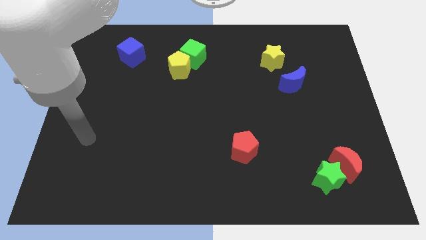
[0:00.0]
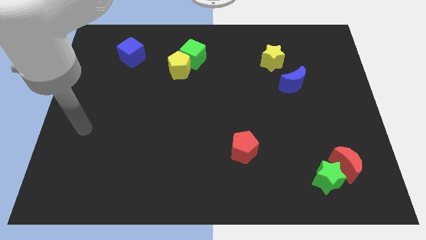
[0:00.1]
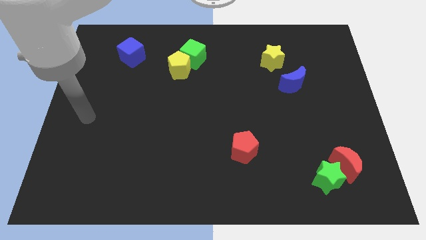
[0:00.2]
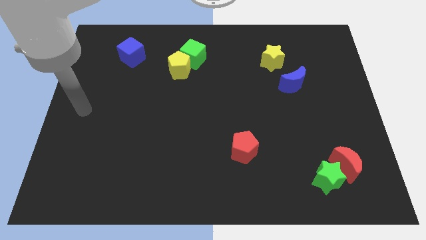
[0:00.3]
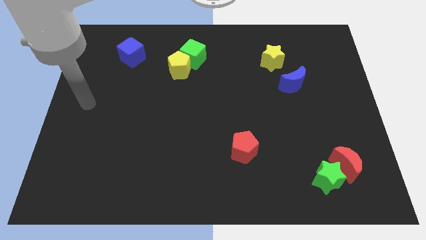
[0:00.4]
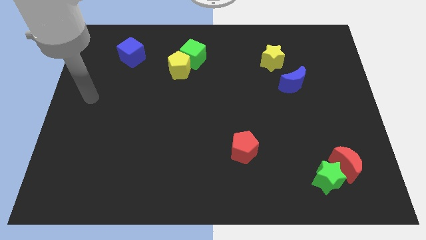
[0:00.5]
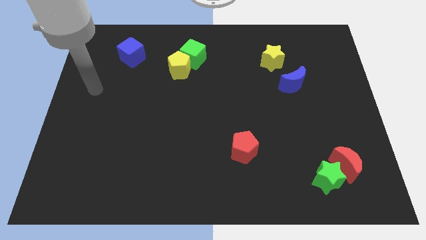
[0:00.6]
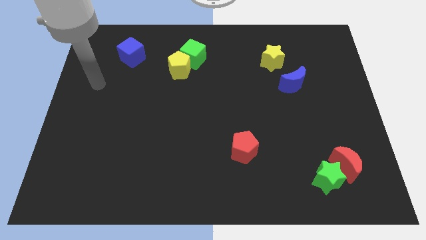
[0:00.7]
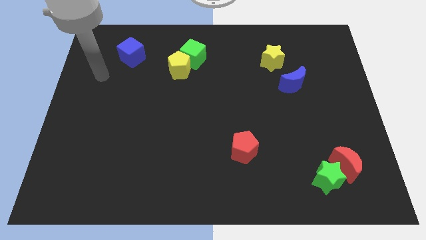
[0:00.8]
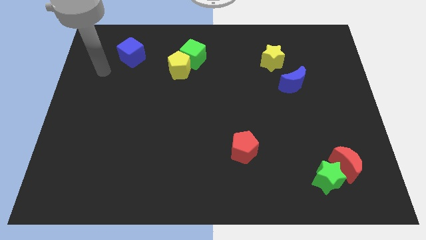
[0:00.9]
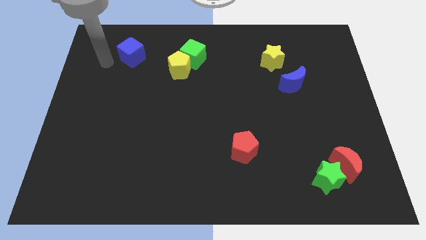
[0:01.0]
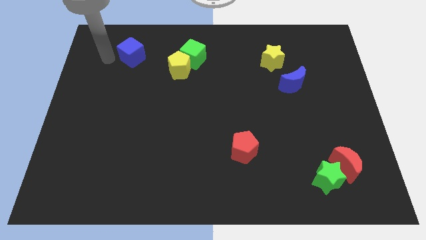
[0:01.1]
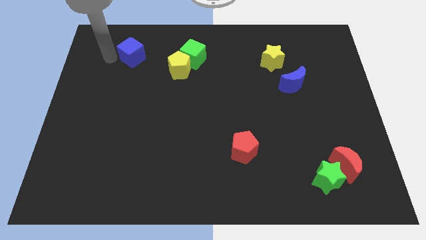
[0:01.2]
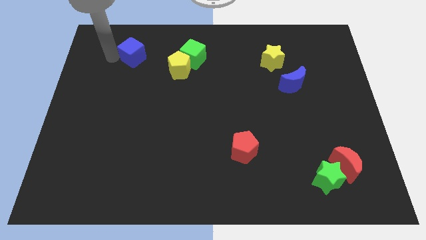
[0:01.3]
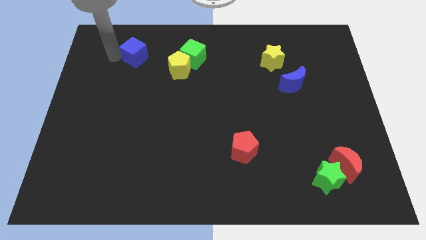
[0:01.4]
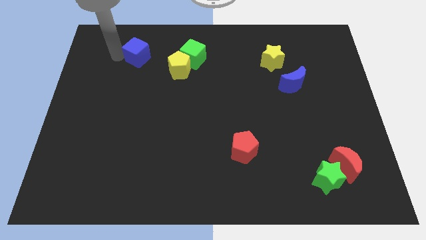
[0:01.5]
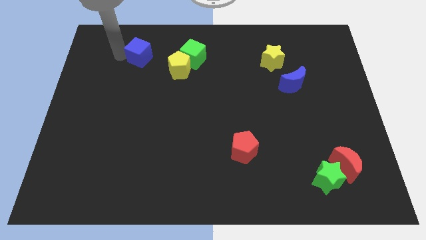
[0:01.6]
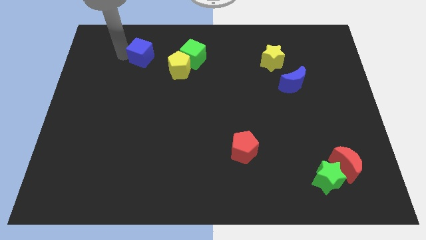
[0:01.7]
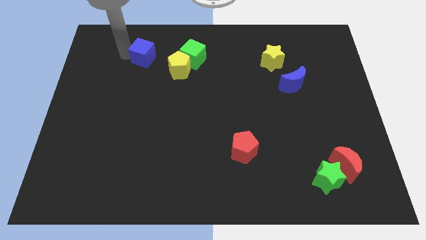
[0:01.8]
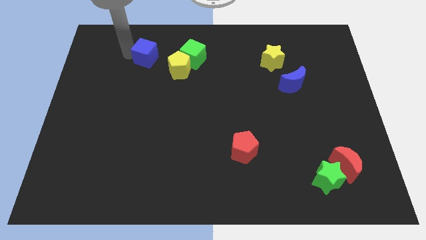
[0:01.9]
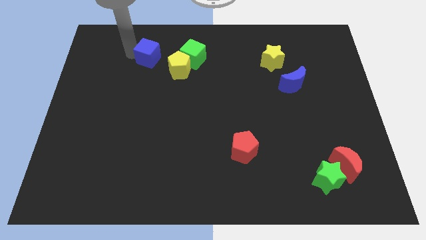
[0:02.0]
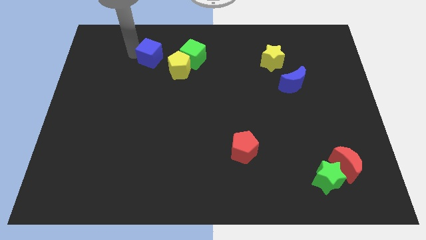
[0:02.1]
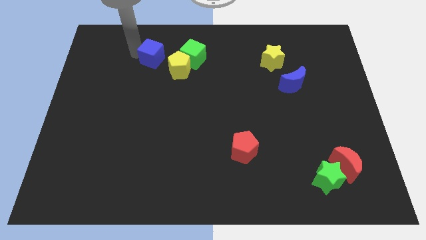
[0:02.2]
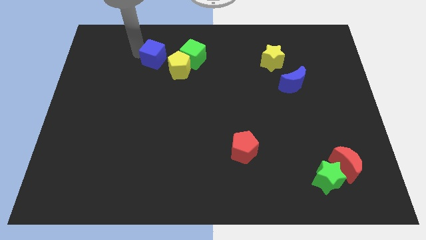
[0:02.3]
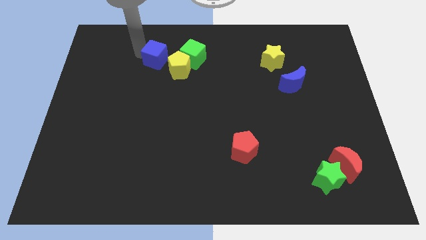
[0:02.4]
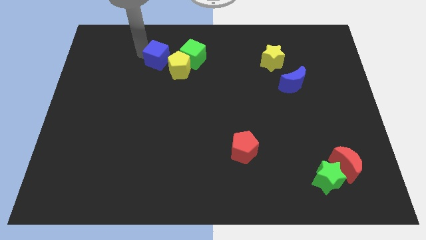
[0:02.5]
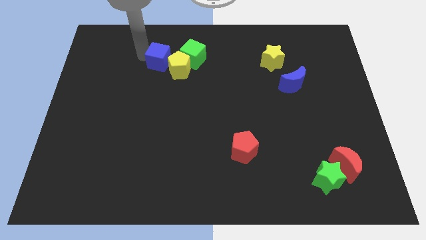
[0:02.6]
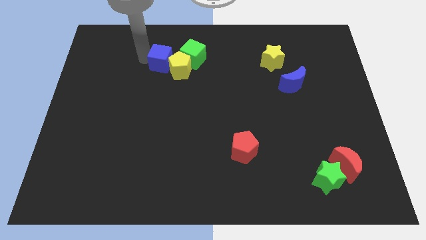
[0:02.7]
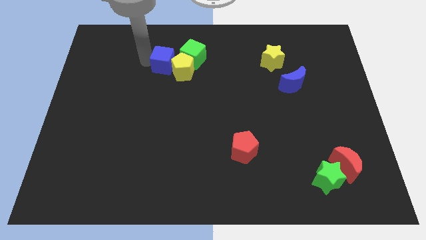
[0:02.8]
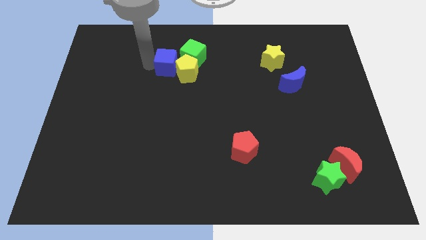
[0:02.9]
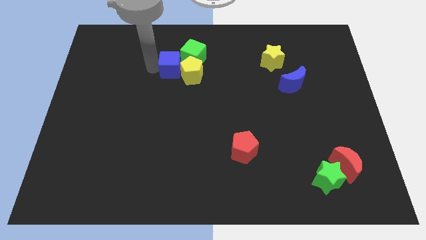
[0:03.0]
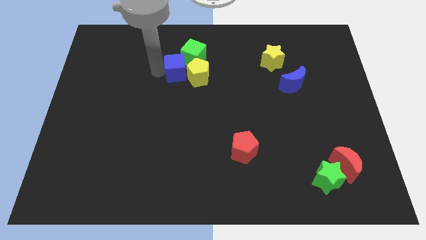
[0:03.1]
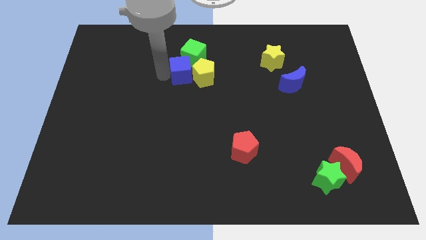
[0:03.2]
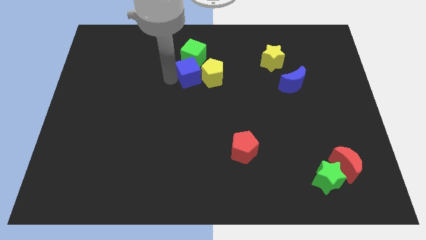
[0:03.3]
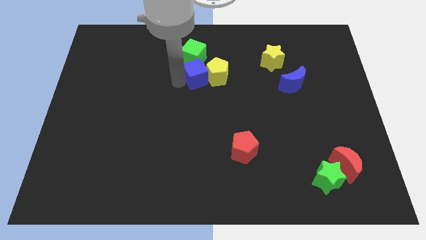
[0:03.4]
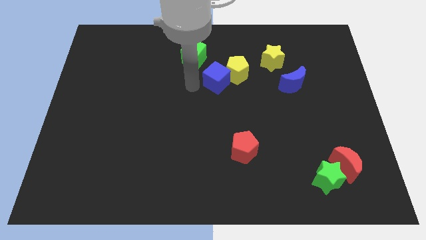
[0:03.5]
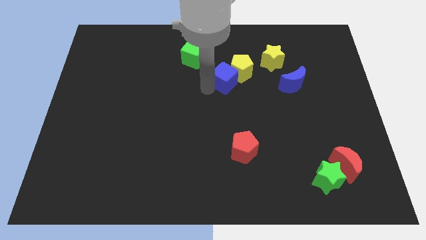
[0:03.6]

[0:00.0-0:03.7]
push the blue cube to the right

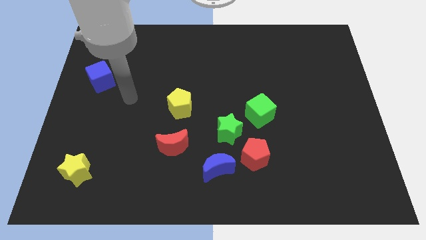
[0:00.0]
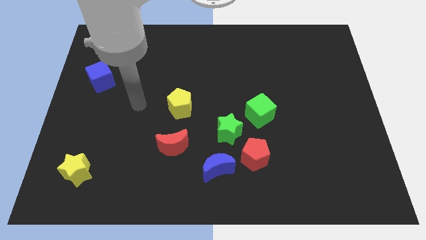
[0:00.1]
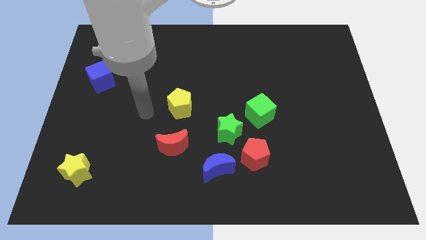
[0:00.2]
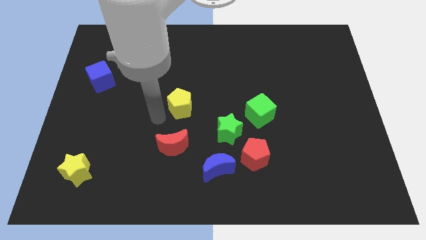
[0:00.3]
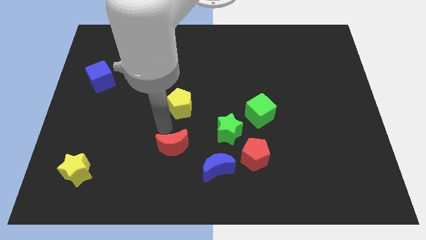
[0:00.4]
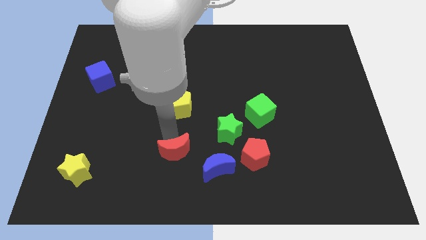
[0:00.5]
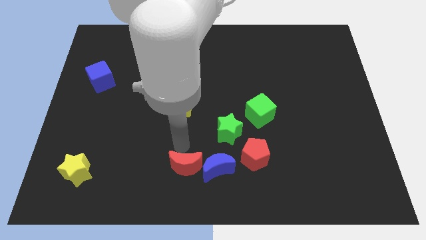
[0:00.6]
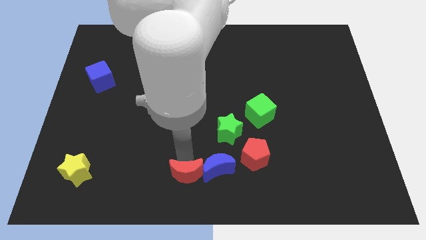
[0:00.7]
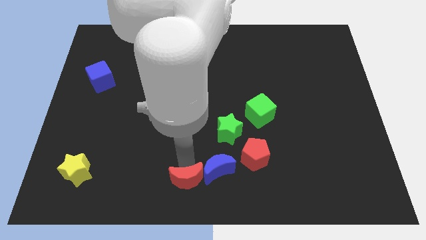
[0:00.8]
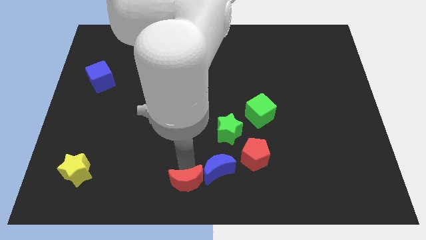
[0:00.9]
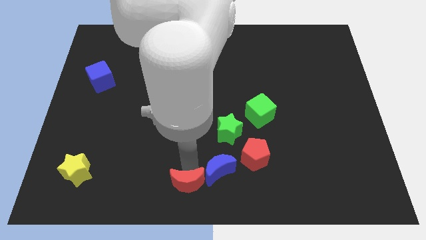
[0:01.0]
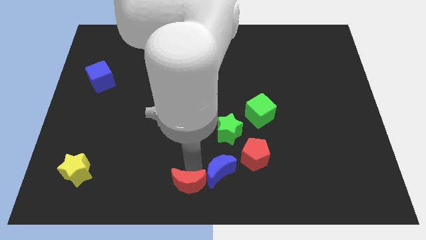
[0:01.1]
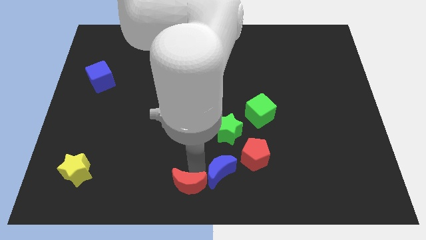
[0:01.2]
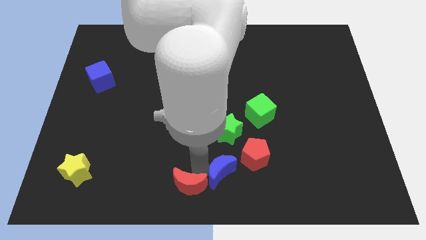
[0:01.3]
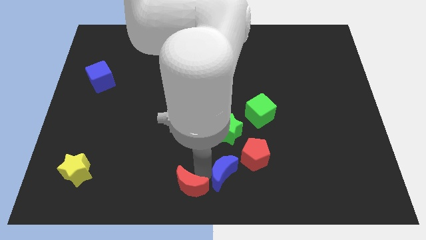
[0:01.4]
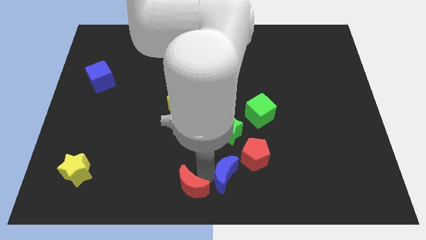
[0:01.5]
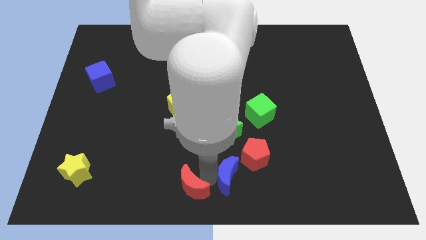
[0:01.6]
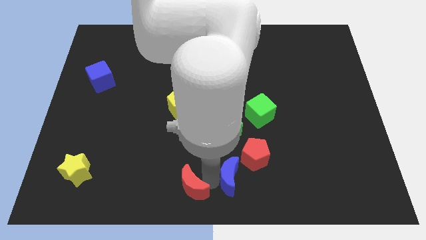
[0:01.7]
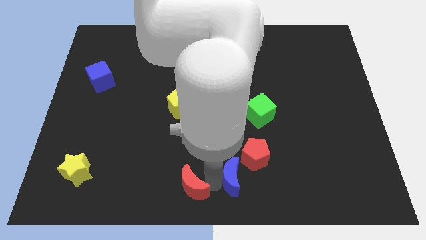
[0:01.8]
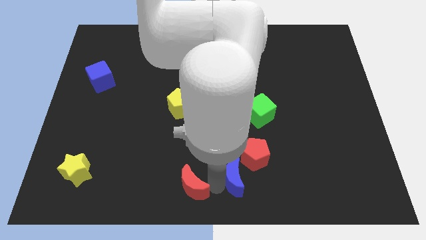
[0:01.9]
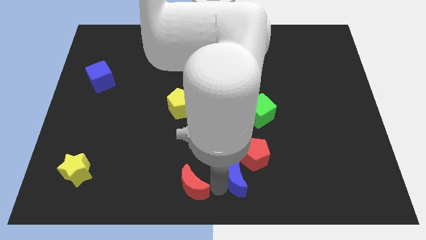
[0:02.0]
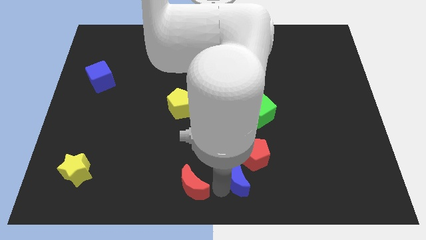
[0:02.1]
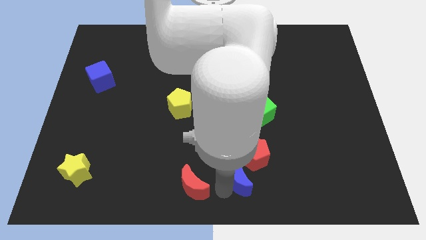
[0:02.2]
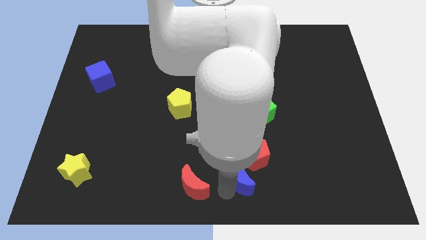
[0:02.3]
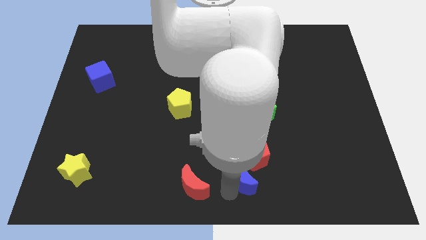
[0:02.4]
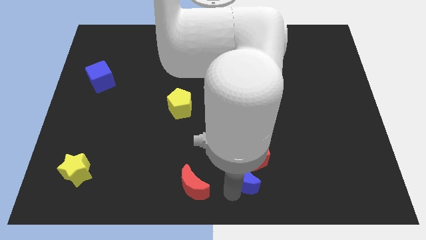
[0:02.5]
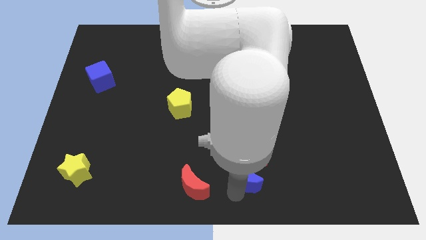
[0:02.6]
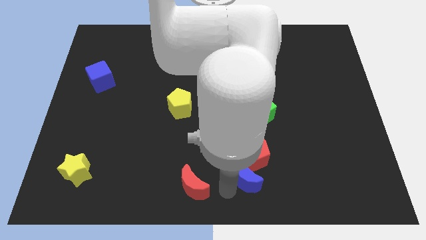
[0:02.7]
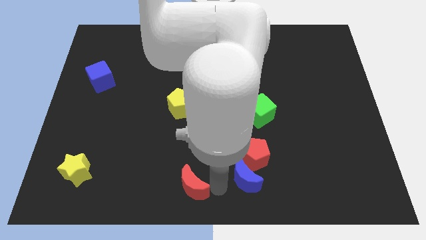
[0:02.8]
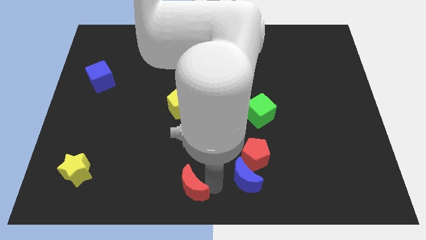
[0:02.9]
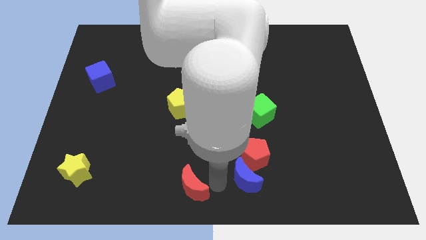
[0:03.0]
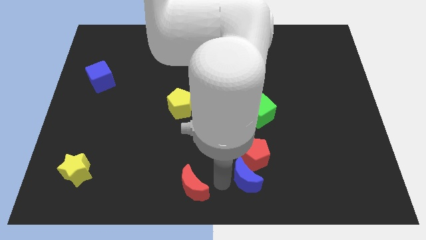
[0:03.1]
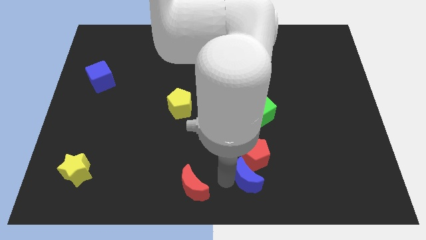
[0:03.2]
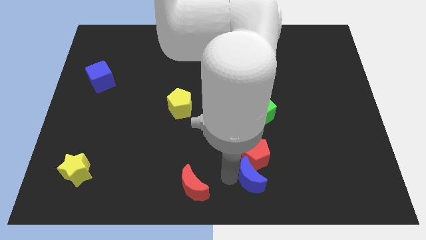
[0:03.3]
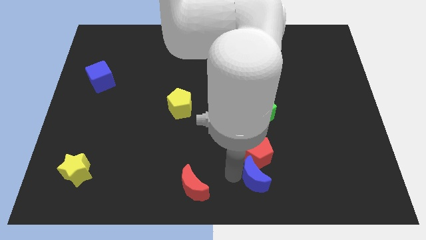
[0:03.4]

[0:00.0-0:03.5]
push the blue moon slightly right

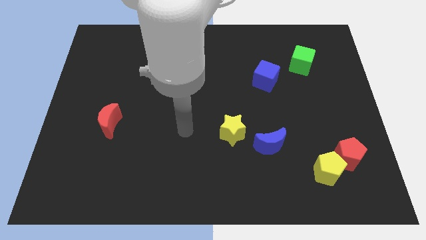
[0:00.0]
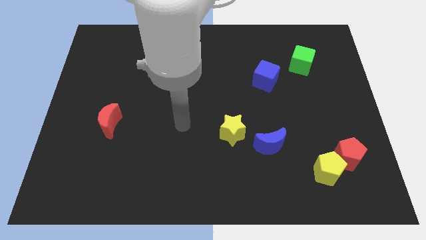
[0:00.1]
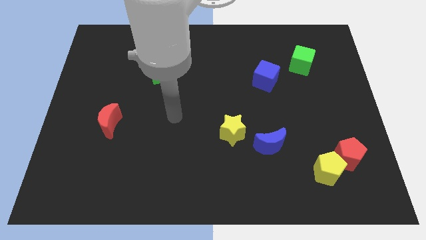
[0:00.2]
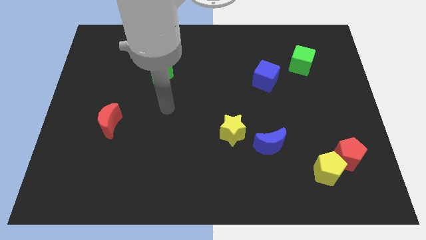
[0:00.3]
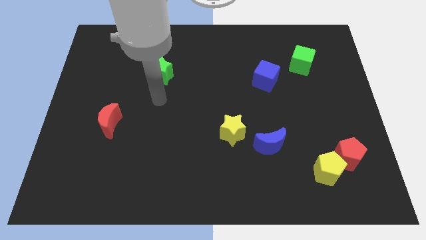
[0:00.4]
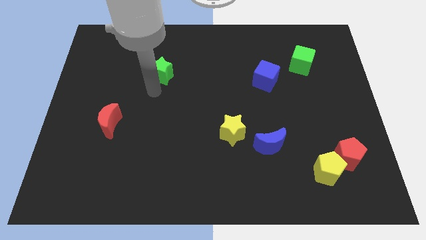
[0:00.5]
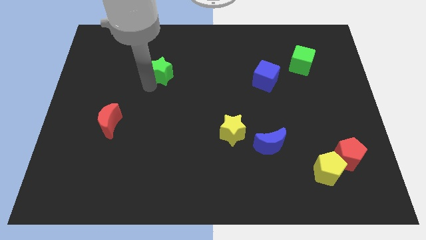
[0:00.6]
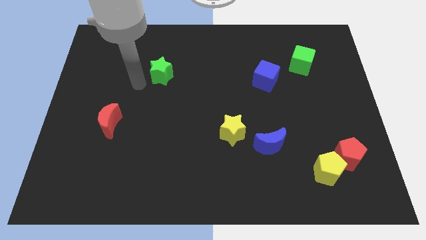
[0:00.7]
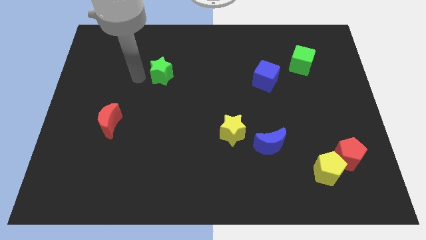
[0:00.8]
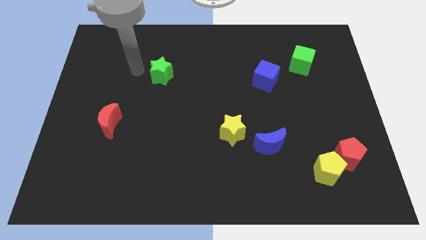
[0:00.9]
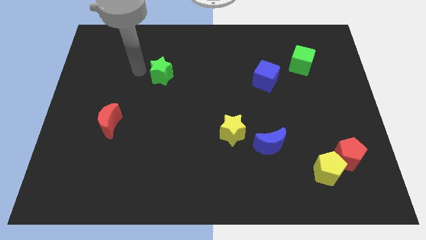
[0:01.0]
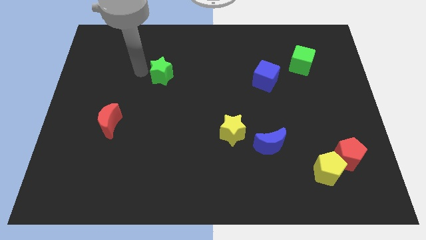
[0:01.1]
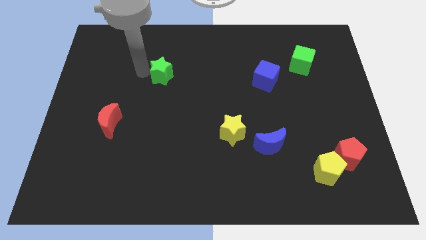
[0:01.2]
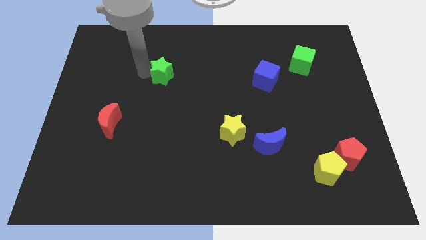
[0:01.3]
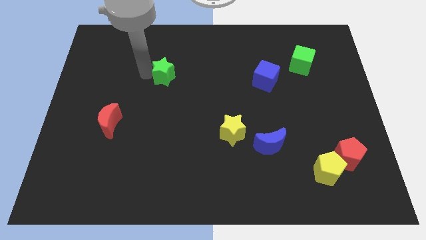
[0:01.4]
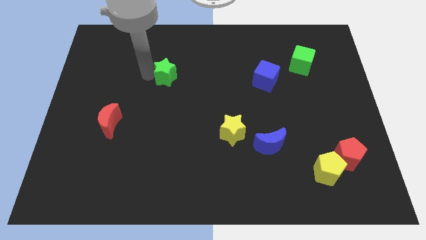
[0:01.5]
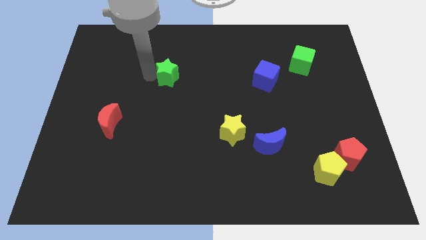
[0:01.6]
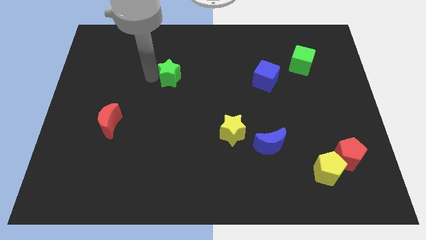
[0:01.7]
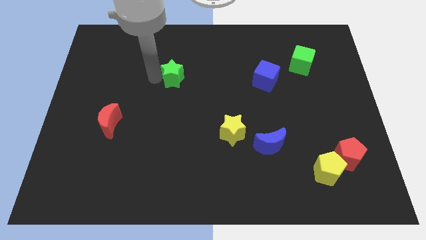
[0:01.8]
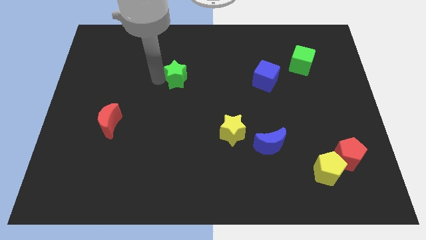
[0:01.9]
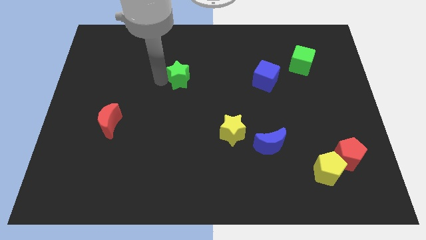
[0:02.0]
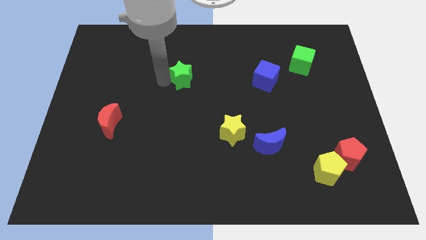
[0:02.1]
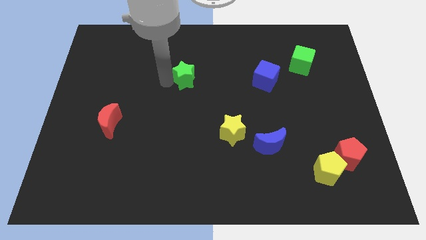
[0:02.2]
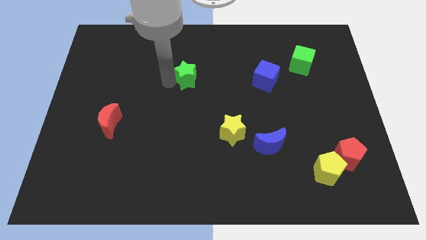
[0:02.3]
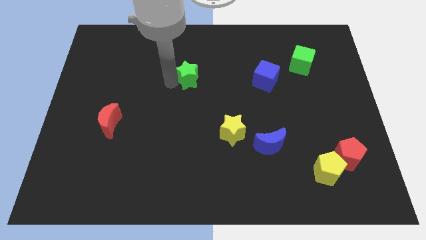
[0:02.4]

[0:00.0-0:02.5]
slide the green star right a little
